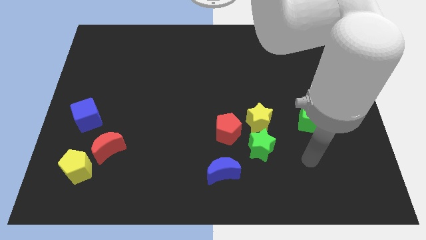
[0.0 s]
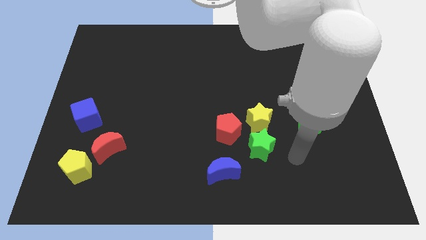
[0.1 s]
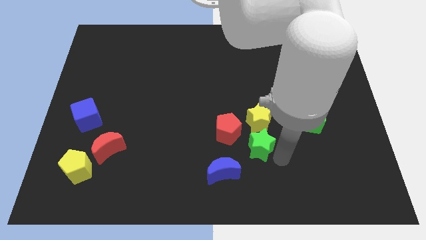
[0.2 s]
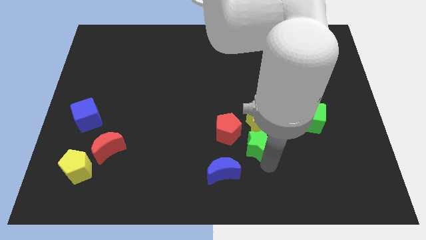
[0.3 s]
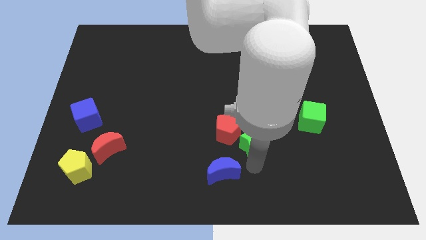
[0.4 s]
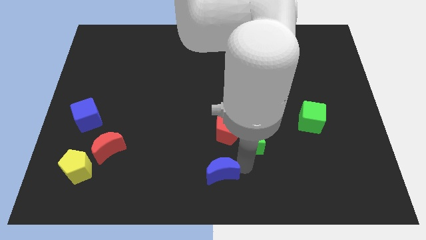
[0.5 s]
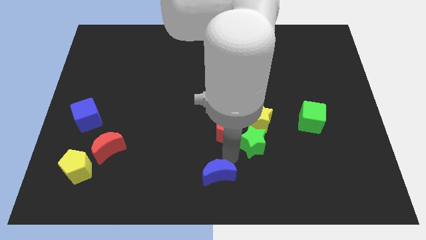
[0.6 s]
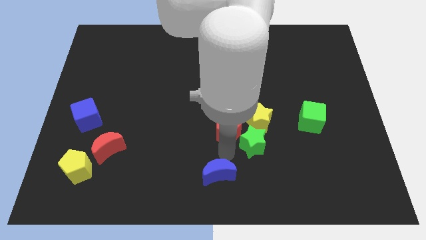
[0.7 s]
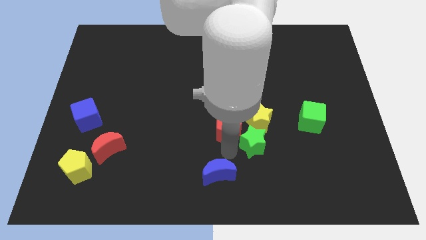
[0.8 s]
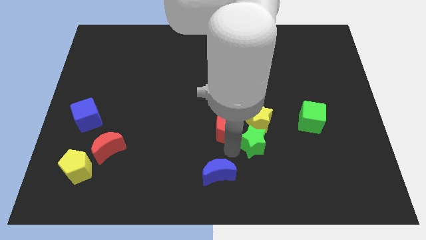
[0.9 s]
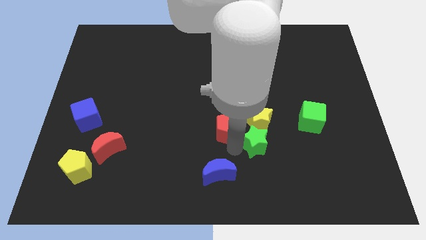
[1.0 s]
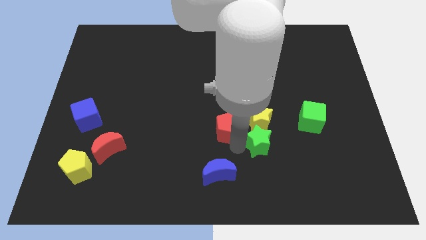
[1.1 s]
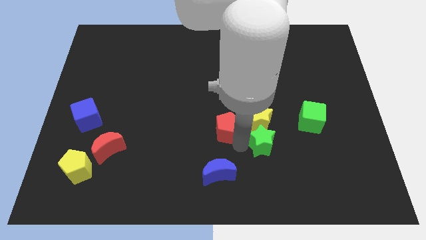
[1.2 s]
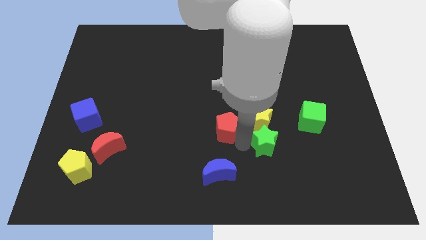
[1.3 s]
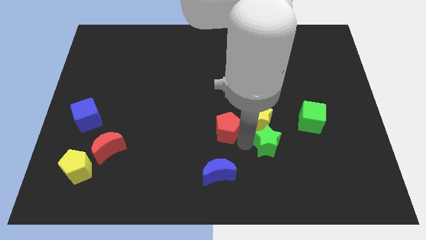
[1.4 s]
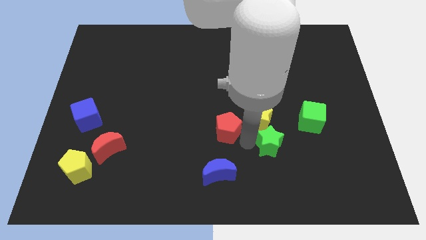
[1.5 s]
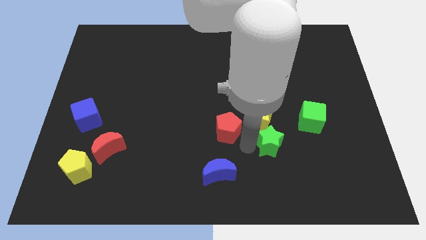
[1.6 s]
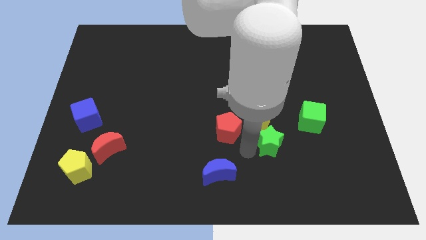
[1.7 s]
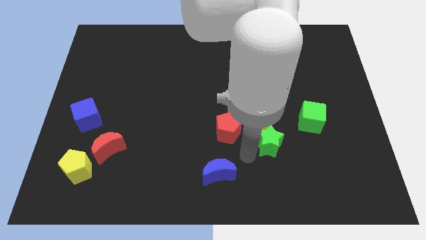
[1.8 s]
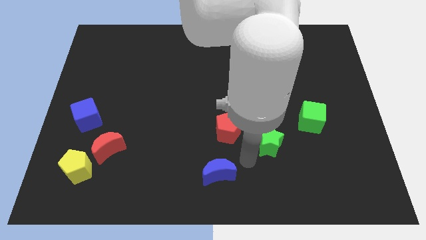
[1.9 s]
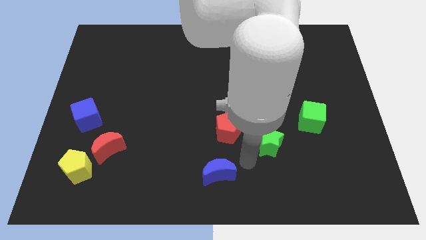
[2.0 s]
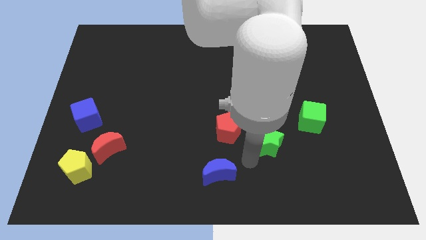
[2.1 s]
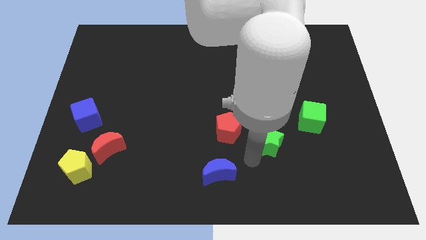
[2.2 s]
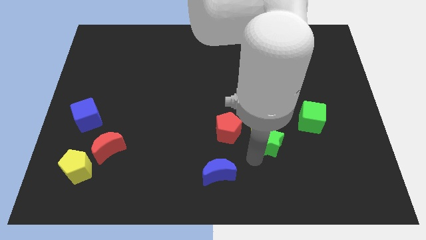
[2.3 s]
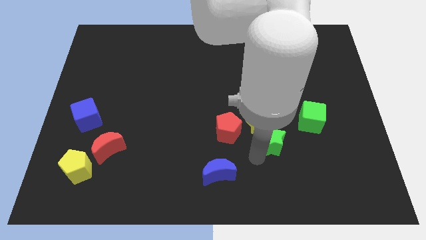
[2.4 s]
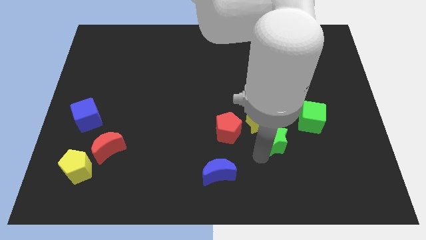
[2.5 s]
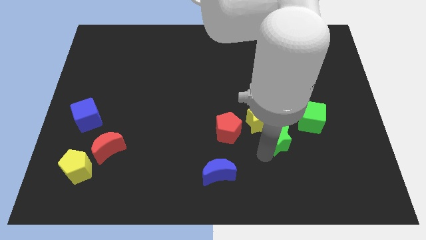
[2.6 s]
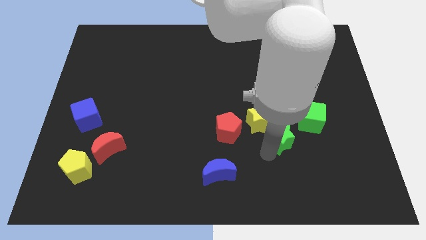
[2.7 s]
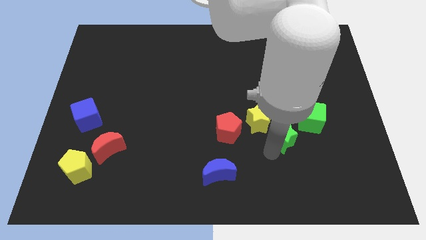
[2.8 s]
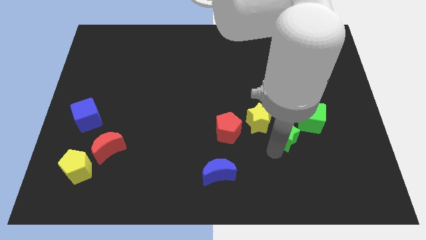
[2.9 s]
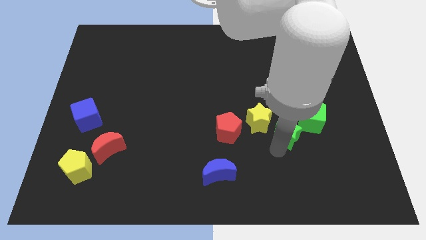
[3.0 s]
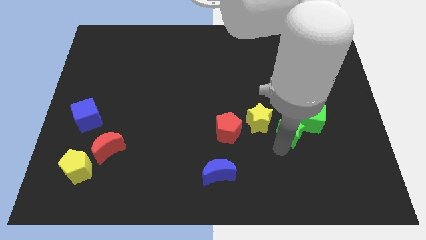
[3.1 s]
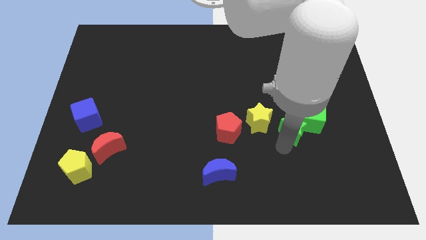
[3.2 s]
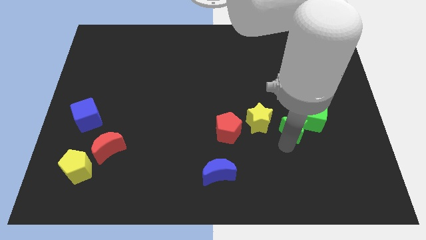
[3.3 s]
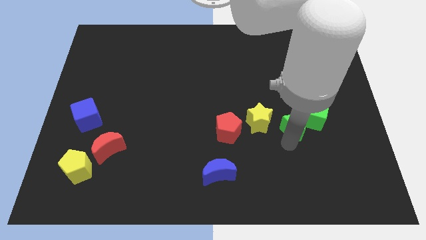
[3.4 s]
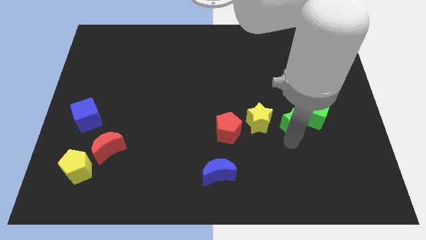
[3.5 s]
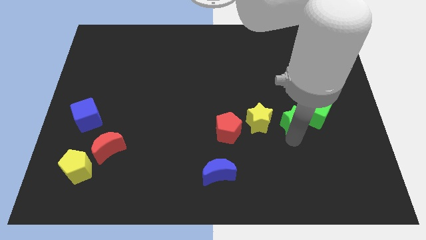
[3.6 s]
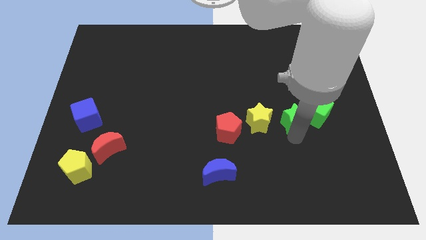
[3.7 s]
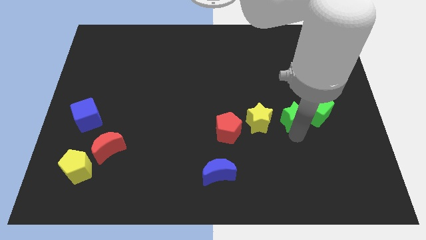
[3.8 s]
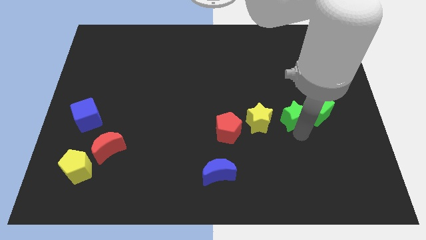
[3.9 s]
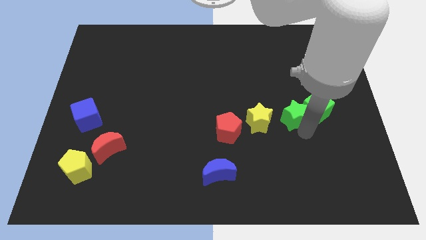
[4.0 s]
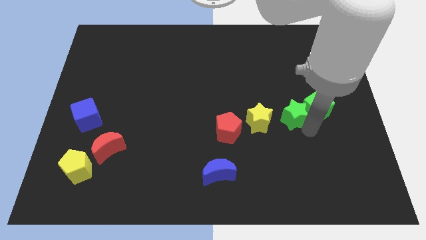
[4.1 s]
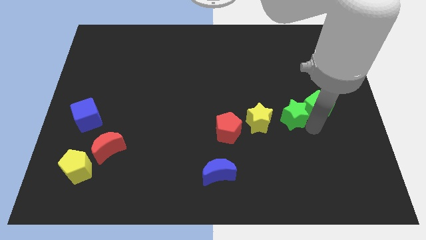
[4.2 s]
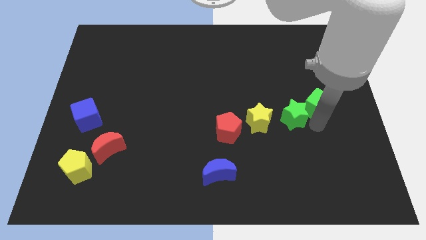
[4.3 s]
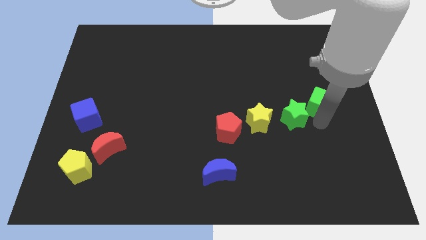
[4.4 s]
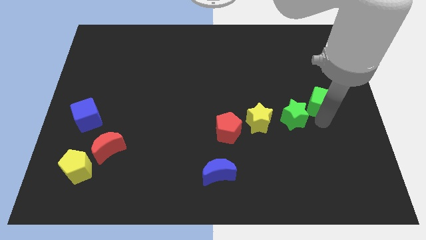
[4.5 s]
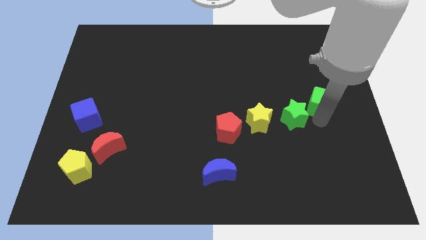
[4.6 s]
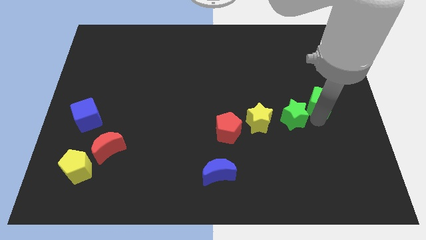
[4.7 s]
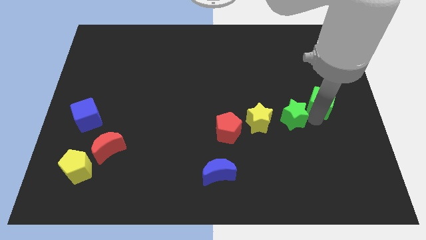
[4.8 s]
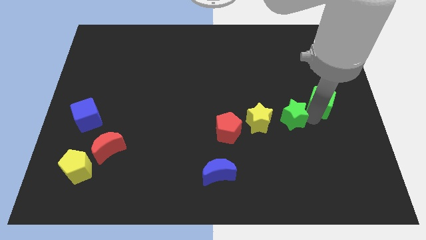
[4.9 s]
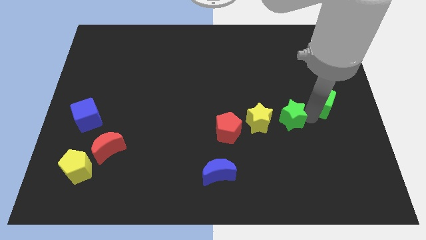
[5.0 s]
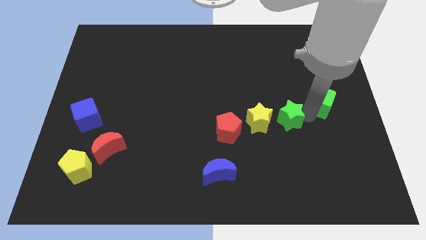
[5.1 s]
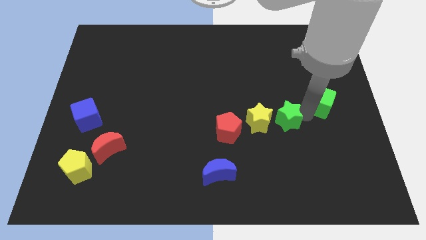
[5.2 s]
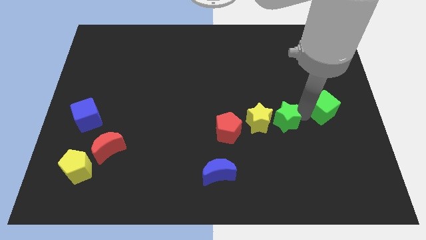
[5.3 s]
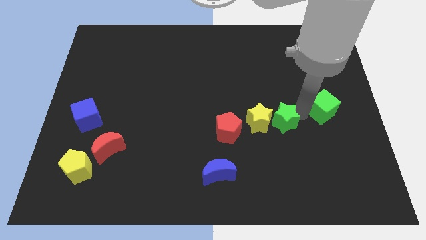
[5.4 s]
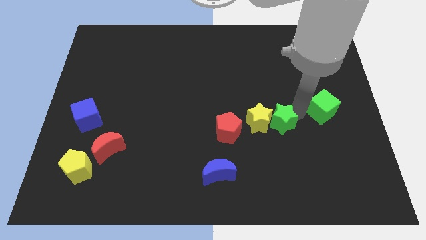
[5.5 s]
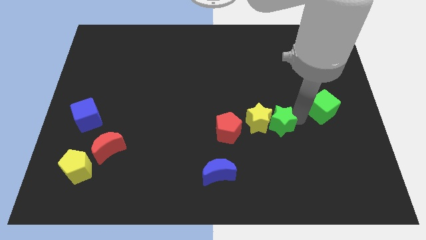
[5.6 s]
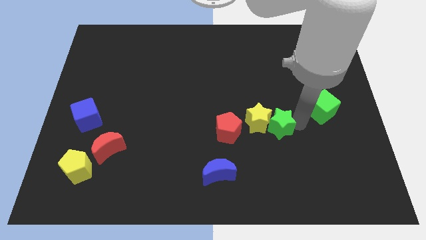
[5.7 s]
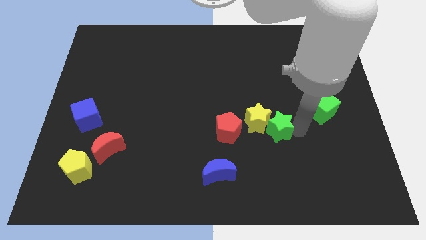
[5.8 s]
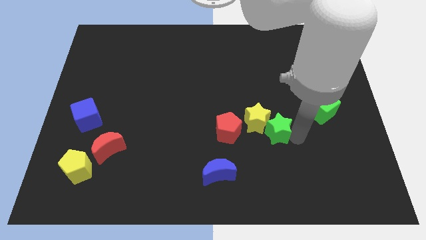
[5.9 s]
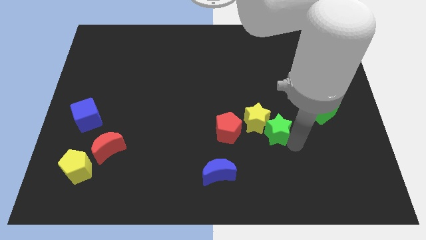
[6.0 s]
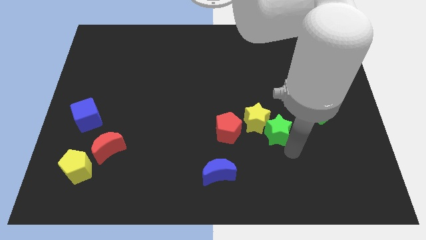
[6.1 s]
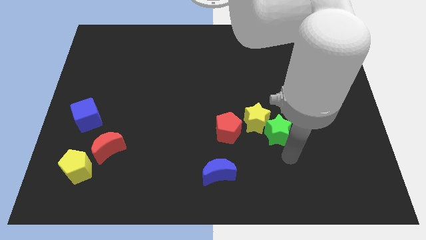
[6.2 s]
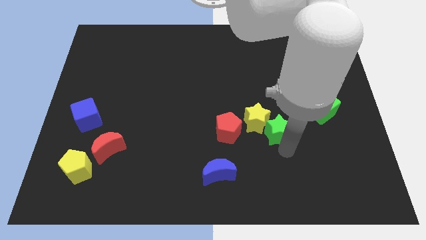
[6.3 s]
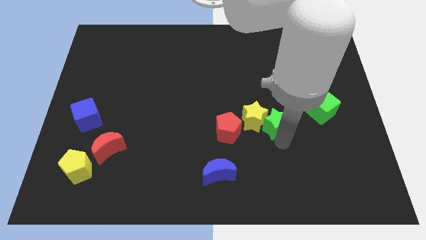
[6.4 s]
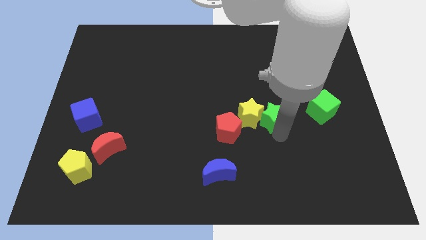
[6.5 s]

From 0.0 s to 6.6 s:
slightly move the green star up

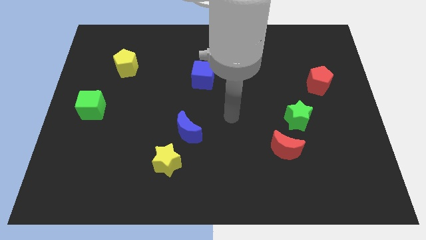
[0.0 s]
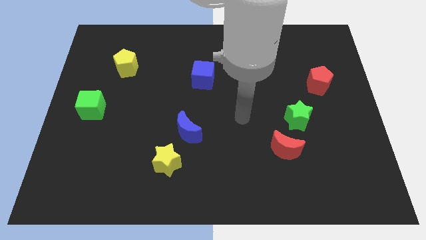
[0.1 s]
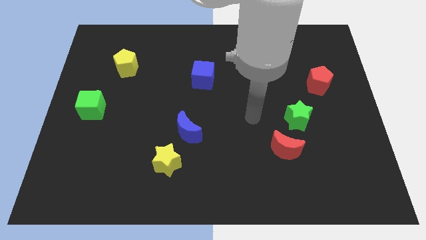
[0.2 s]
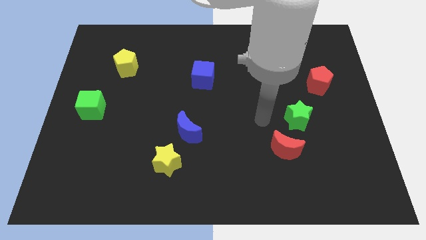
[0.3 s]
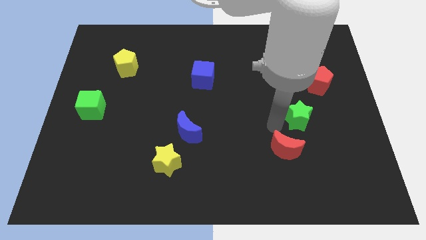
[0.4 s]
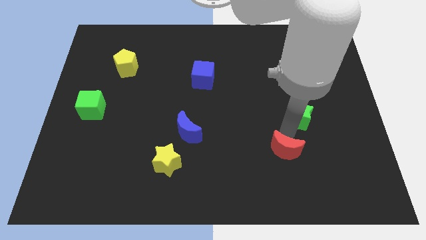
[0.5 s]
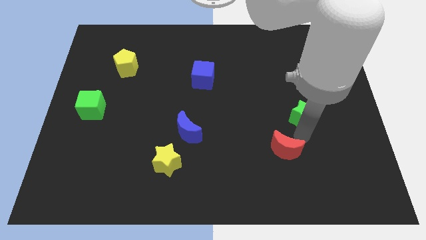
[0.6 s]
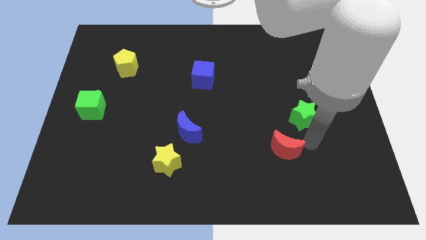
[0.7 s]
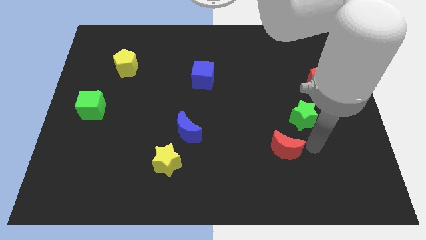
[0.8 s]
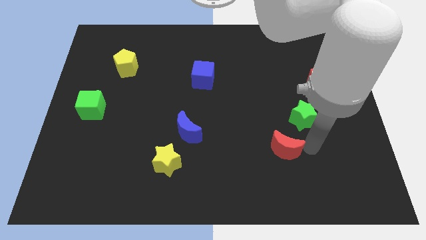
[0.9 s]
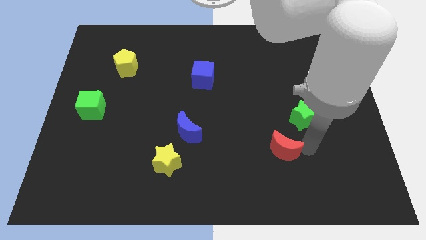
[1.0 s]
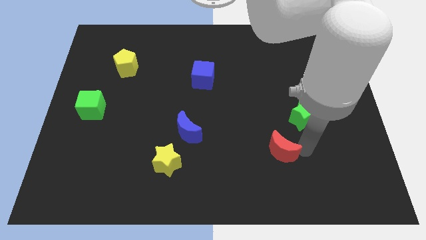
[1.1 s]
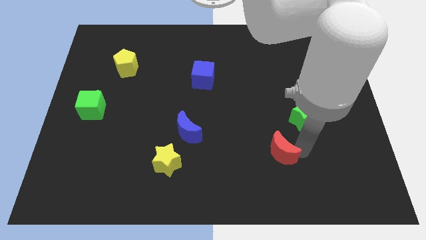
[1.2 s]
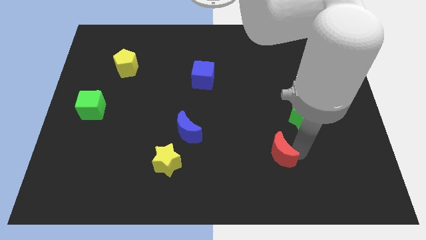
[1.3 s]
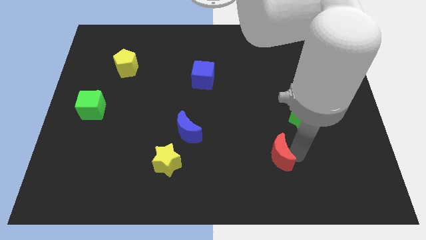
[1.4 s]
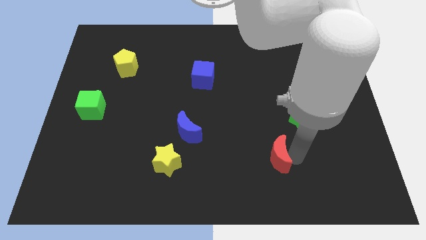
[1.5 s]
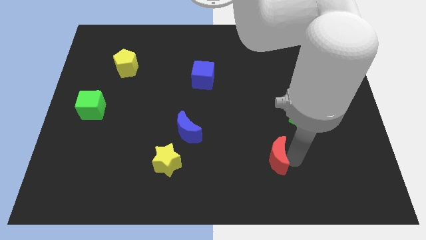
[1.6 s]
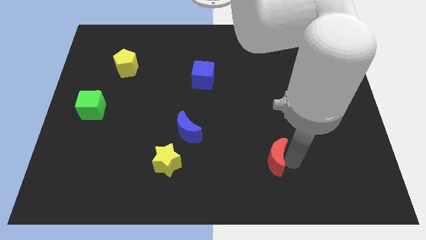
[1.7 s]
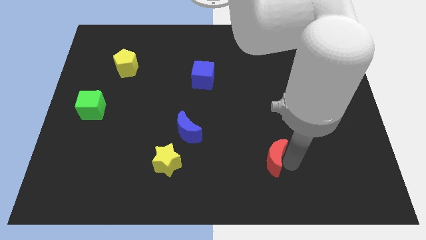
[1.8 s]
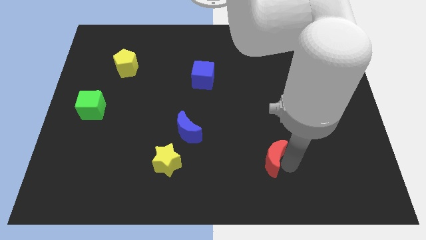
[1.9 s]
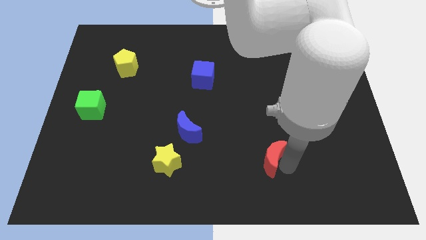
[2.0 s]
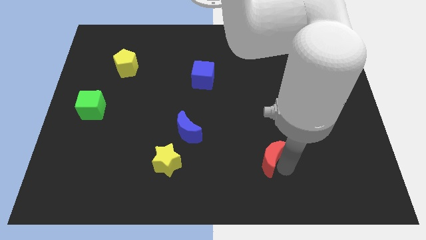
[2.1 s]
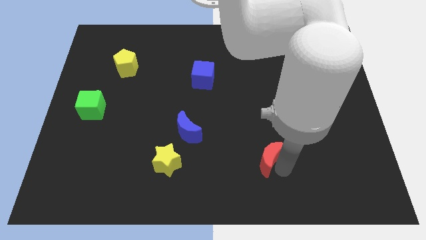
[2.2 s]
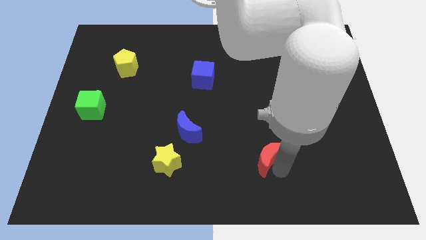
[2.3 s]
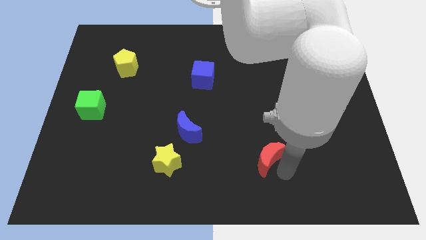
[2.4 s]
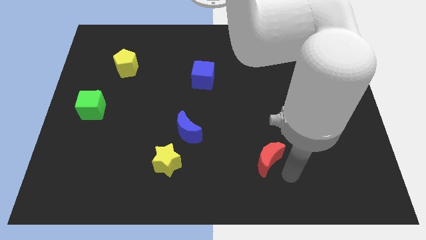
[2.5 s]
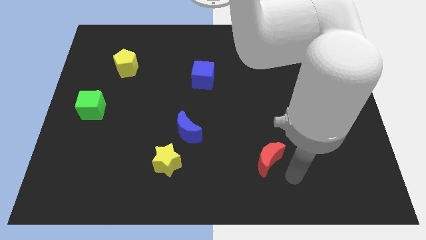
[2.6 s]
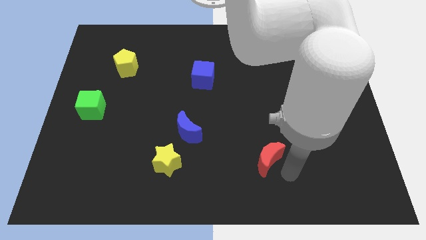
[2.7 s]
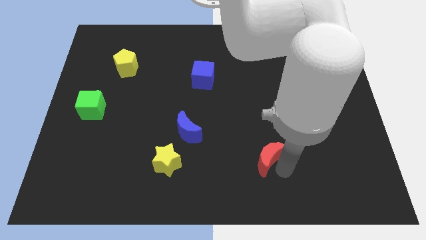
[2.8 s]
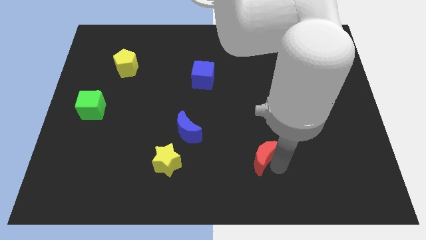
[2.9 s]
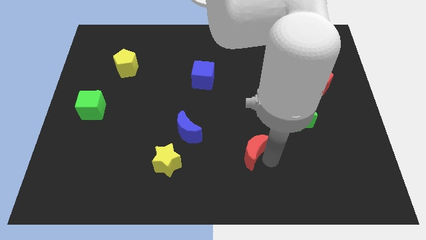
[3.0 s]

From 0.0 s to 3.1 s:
push the red moon a little bit to the left
